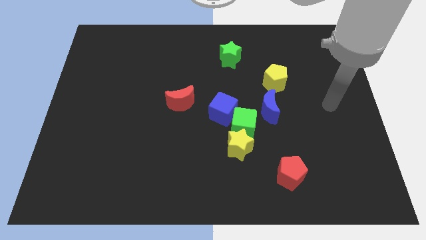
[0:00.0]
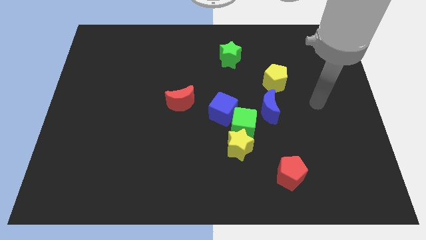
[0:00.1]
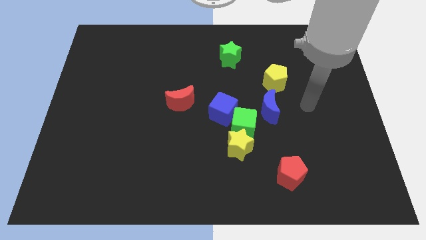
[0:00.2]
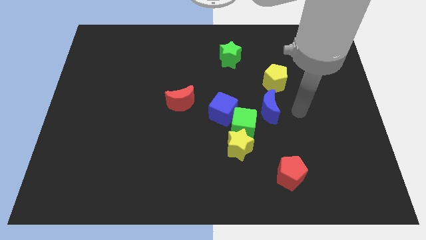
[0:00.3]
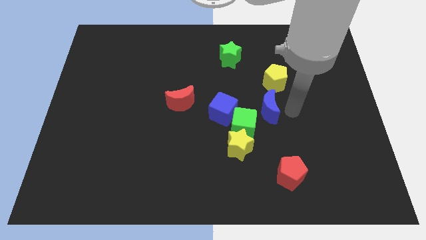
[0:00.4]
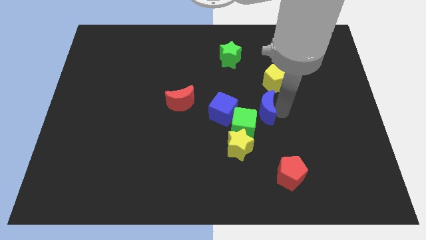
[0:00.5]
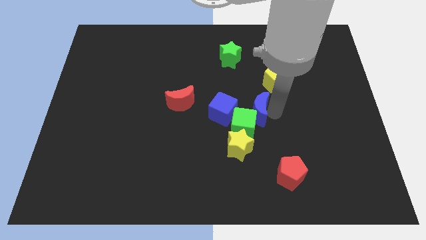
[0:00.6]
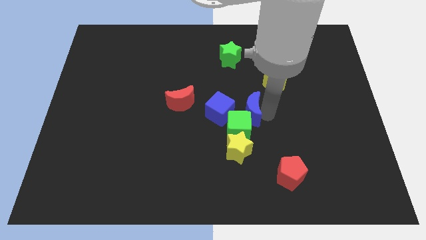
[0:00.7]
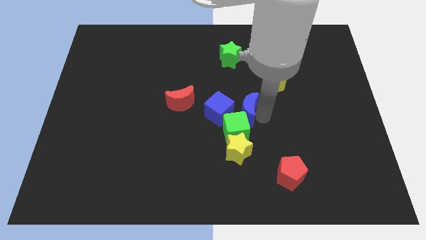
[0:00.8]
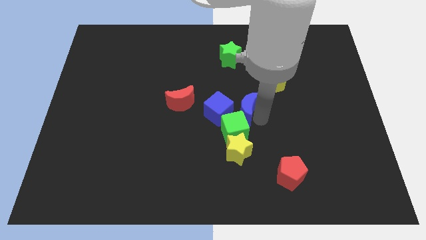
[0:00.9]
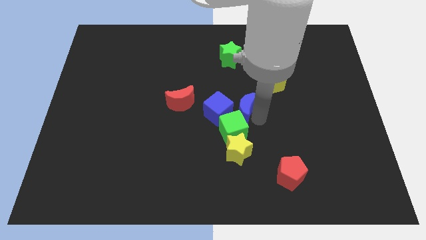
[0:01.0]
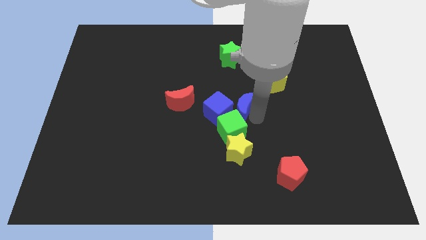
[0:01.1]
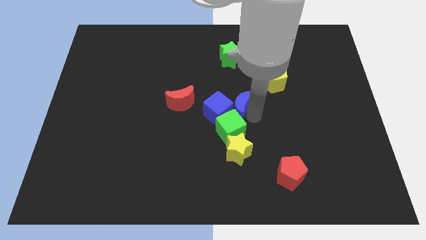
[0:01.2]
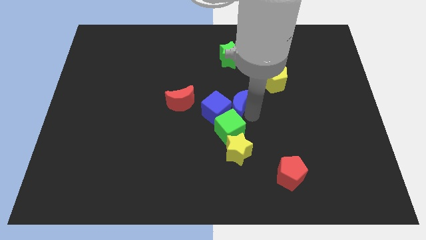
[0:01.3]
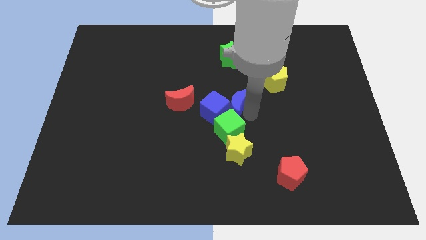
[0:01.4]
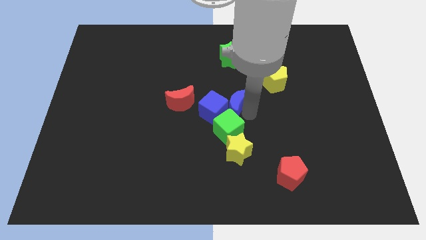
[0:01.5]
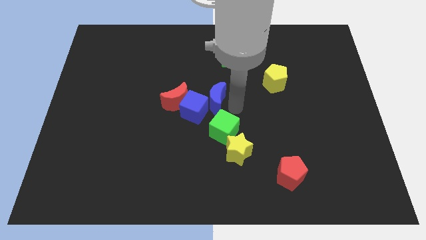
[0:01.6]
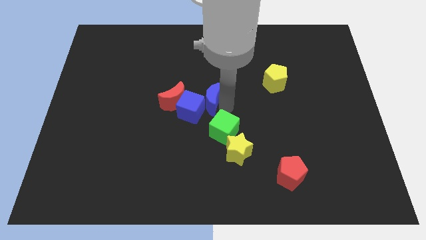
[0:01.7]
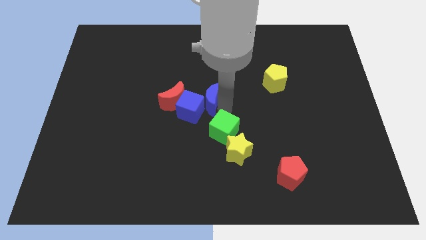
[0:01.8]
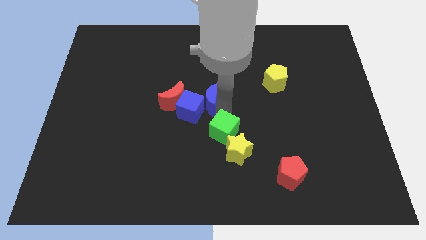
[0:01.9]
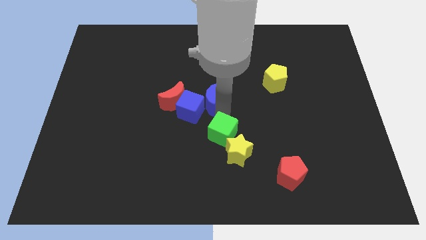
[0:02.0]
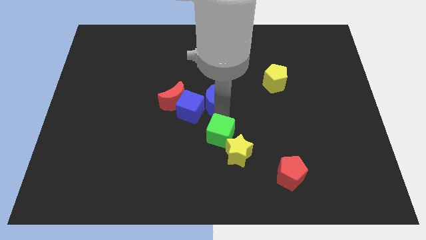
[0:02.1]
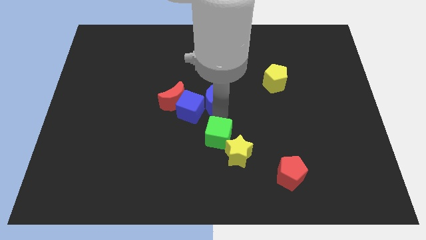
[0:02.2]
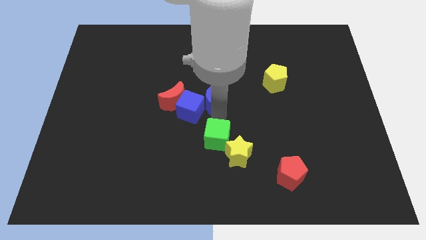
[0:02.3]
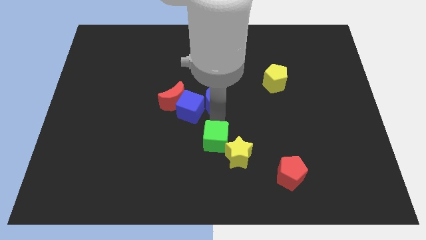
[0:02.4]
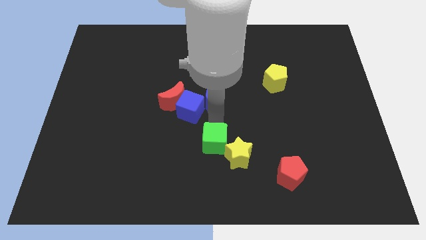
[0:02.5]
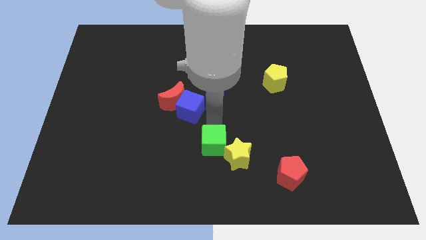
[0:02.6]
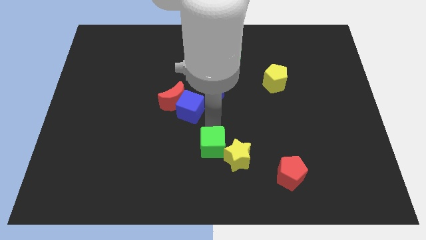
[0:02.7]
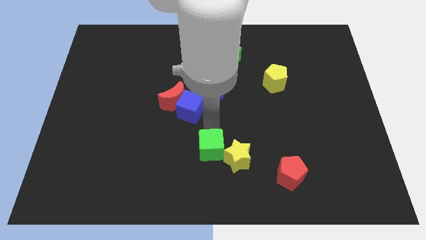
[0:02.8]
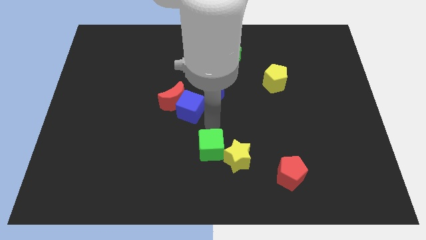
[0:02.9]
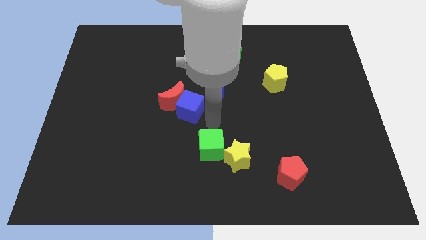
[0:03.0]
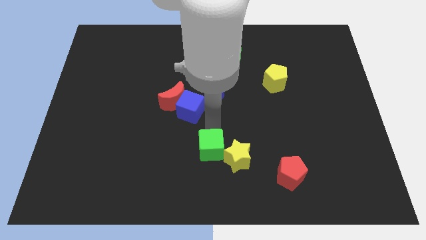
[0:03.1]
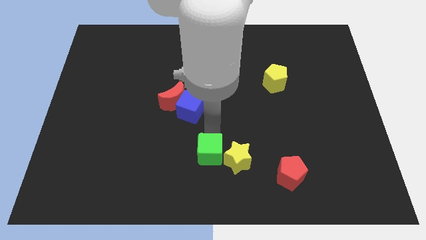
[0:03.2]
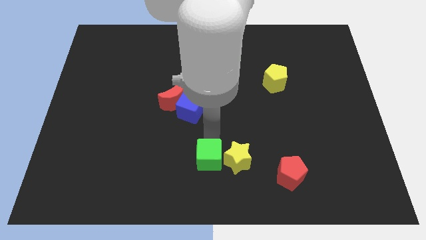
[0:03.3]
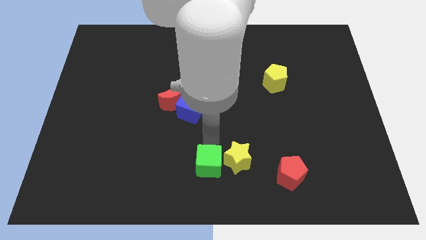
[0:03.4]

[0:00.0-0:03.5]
move the green cube away from the yellow star, blue cube, and blue moon

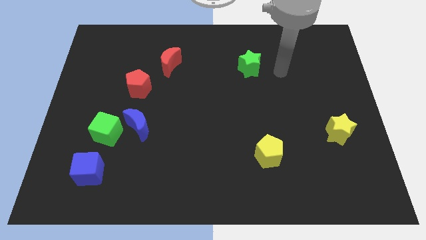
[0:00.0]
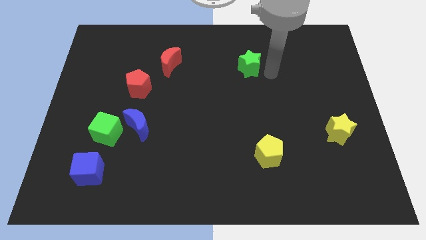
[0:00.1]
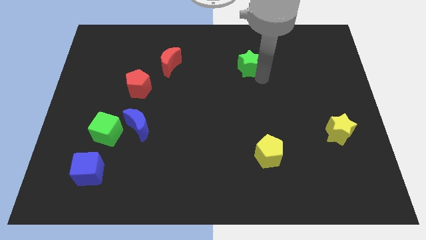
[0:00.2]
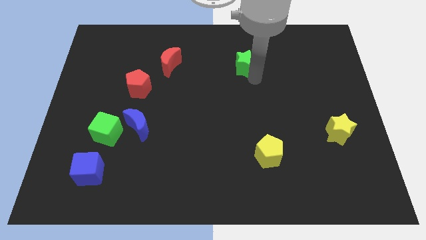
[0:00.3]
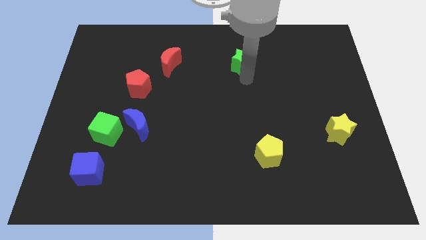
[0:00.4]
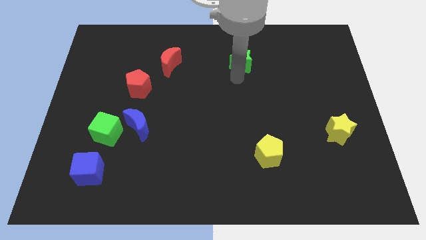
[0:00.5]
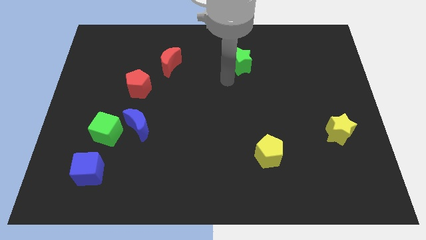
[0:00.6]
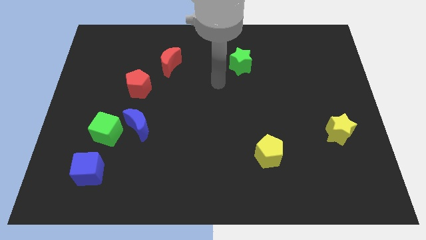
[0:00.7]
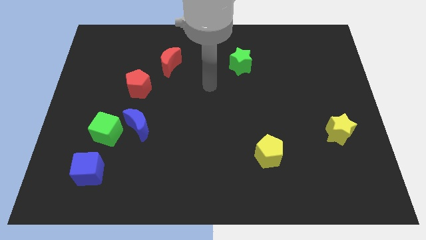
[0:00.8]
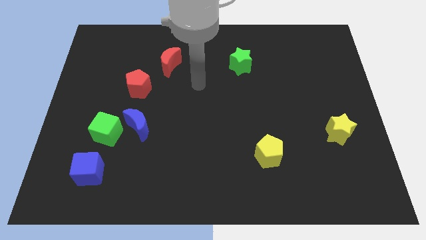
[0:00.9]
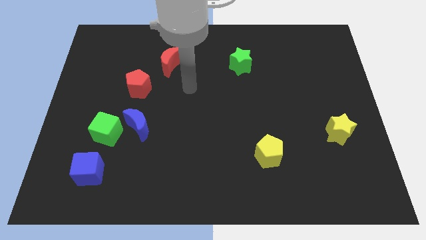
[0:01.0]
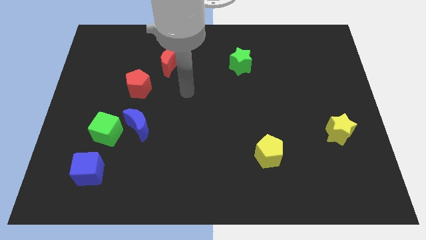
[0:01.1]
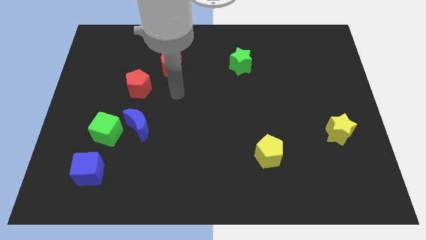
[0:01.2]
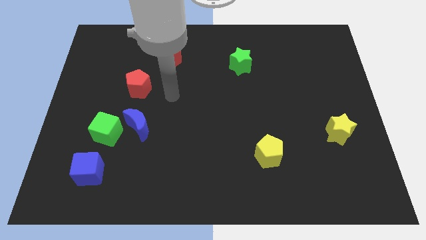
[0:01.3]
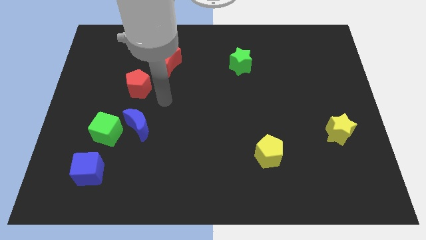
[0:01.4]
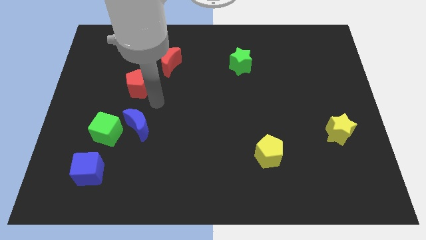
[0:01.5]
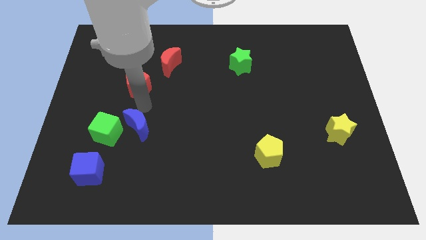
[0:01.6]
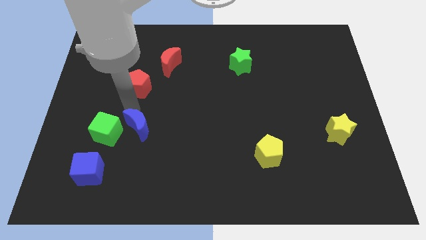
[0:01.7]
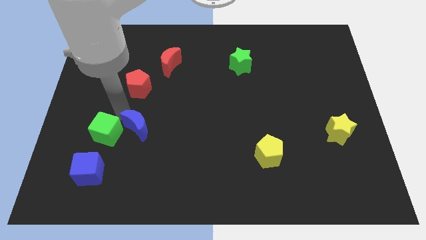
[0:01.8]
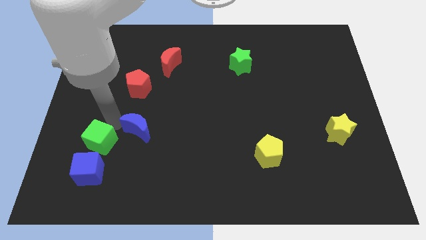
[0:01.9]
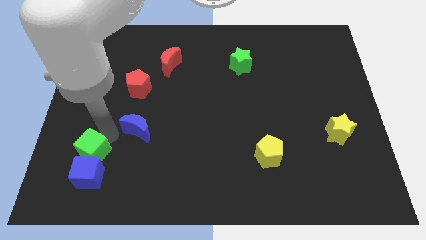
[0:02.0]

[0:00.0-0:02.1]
separate the blue moon from the green cube

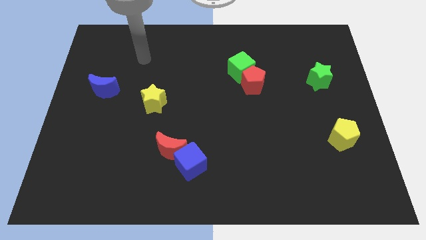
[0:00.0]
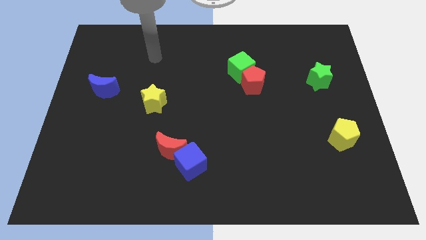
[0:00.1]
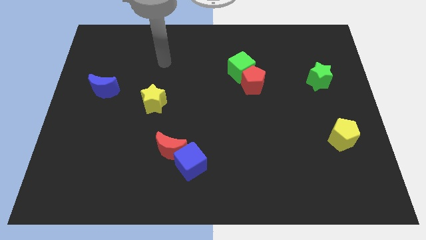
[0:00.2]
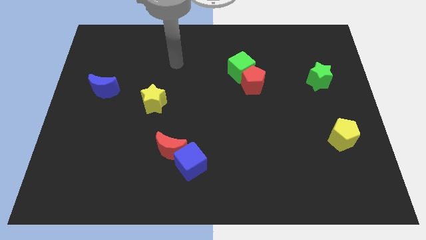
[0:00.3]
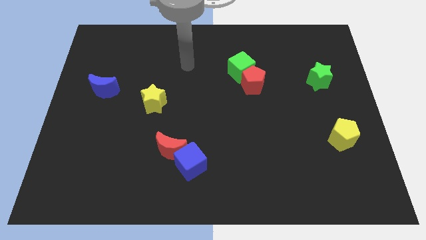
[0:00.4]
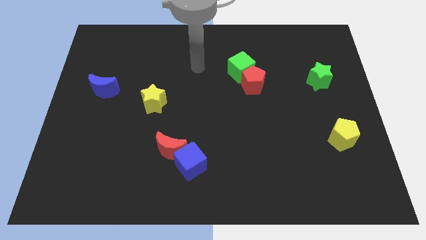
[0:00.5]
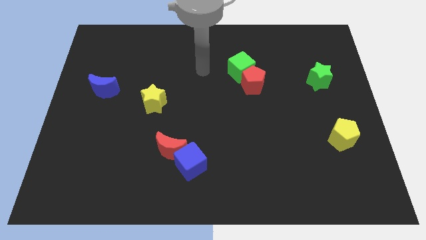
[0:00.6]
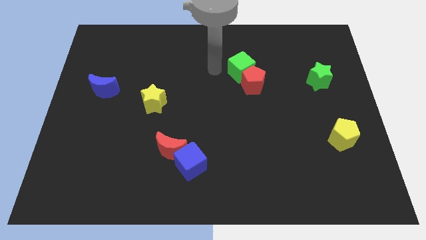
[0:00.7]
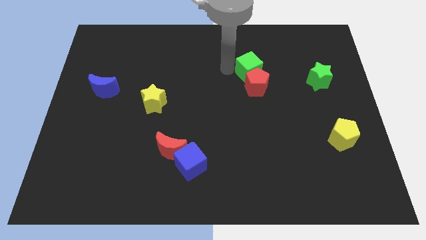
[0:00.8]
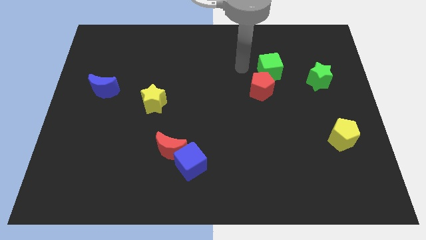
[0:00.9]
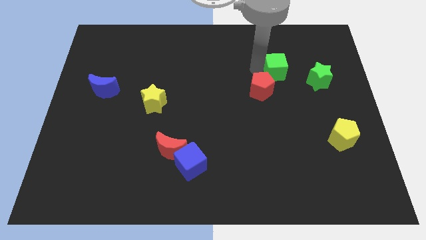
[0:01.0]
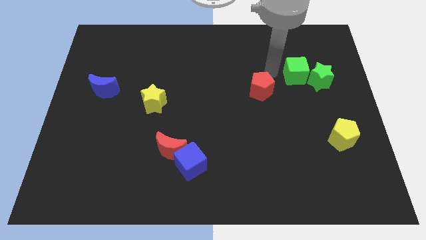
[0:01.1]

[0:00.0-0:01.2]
pull the red pentagon apart from the green cube

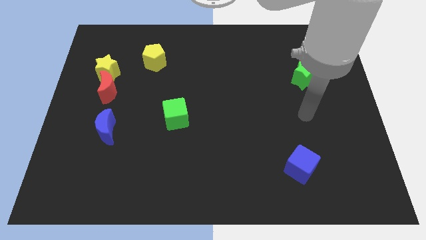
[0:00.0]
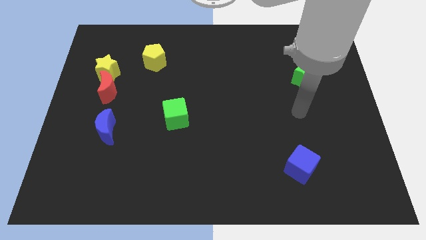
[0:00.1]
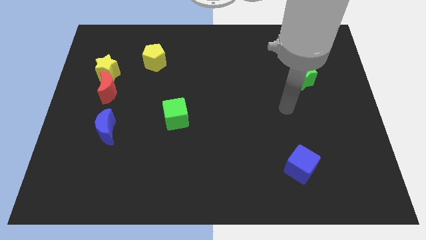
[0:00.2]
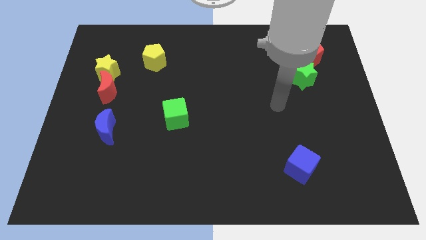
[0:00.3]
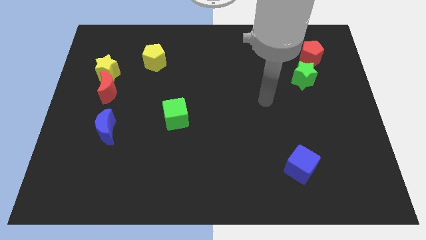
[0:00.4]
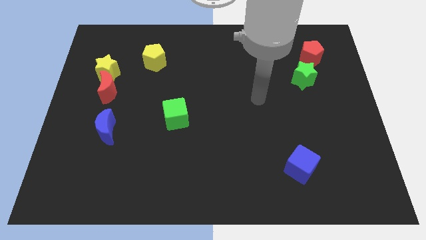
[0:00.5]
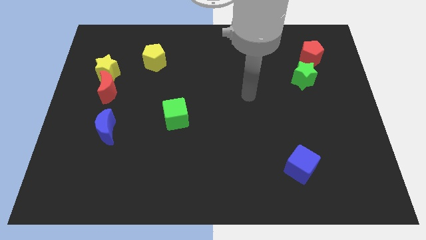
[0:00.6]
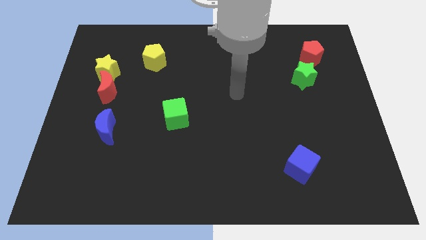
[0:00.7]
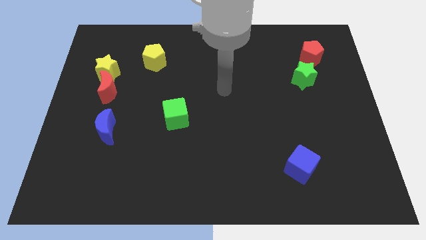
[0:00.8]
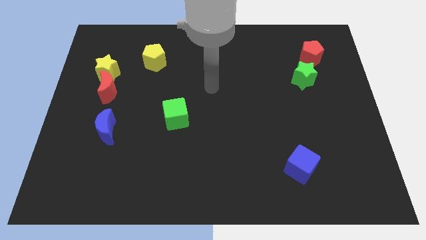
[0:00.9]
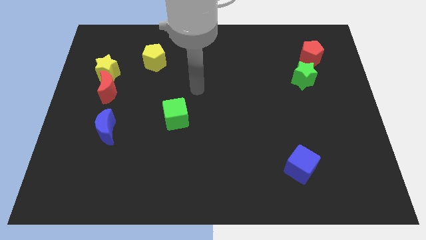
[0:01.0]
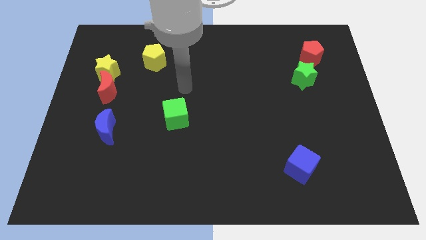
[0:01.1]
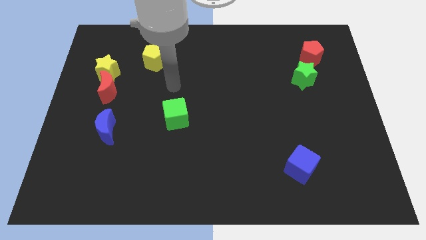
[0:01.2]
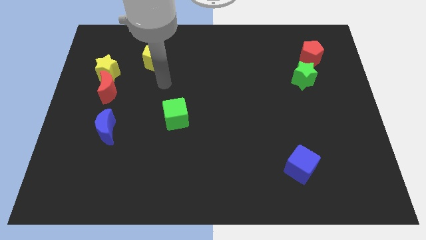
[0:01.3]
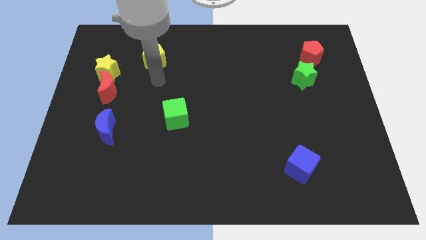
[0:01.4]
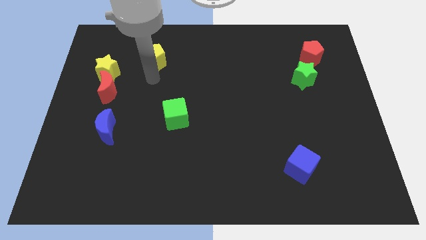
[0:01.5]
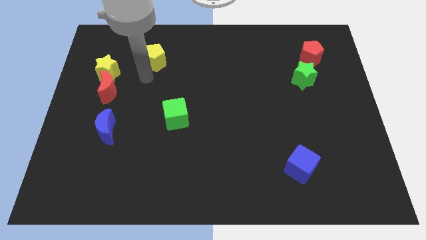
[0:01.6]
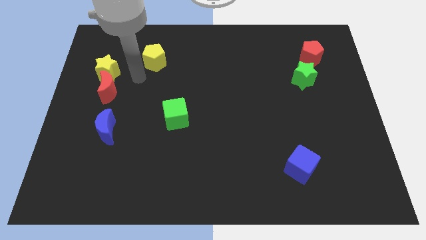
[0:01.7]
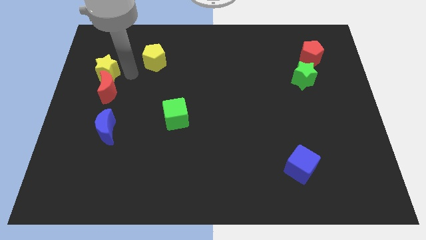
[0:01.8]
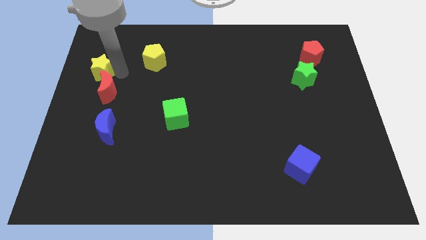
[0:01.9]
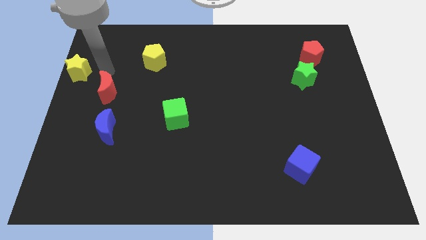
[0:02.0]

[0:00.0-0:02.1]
move the red moon away from the yellow star

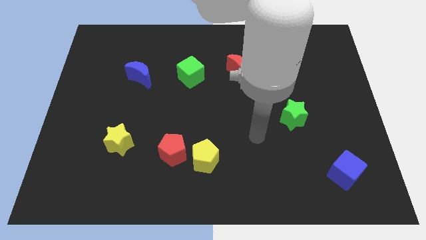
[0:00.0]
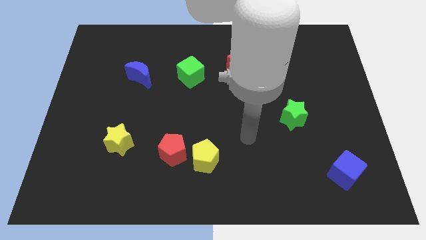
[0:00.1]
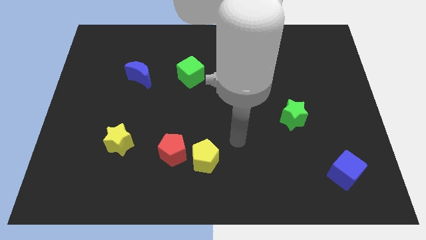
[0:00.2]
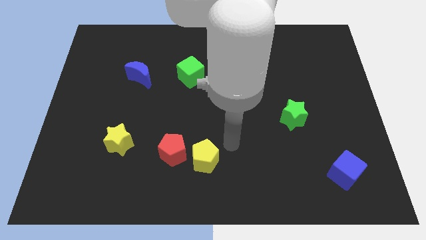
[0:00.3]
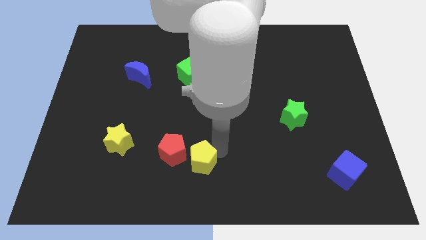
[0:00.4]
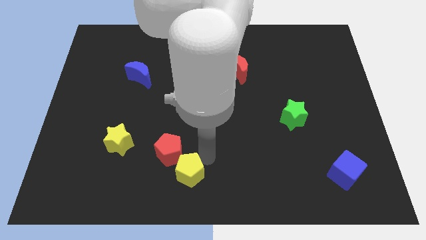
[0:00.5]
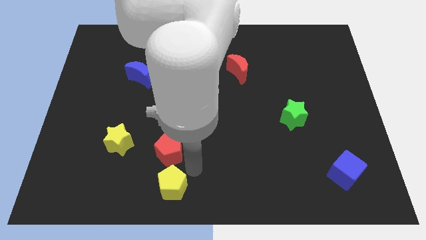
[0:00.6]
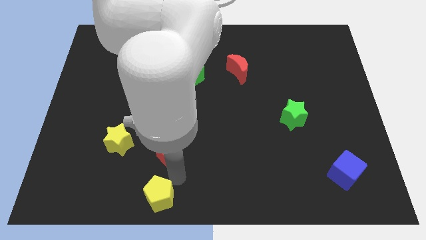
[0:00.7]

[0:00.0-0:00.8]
pull the red pentagon apart from the yellow pentagon
